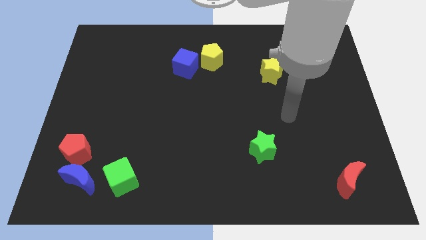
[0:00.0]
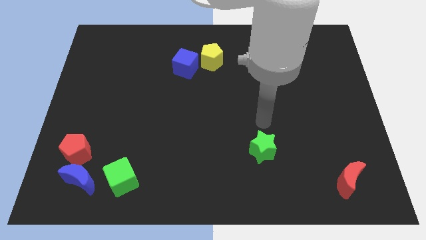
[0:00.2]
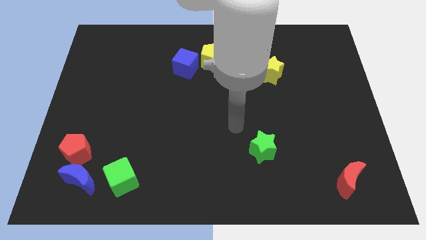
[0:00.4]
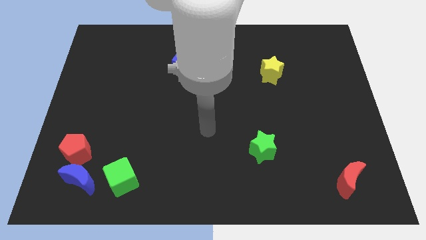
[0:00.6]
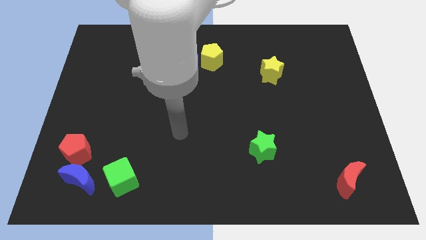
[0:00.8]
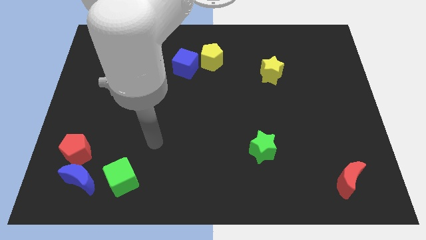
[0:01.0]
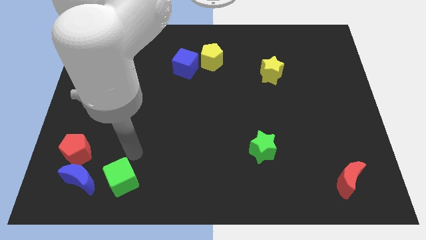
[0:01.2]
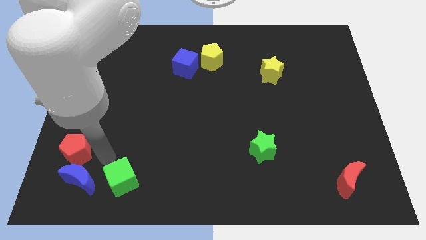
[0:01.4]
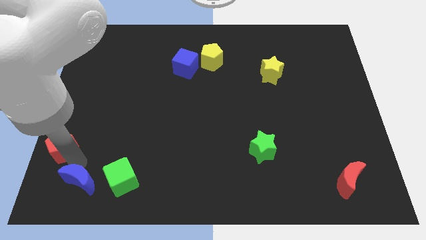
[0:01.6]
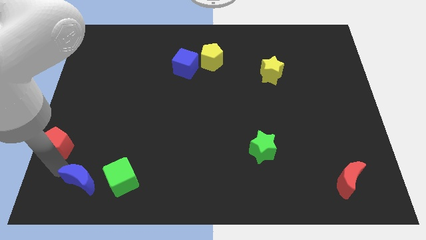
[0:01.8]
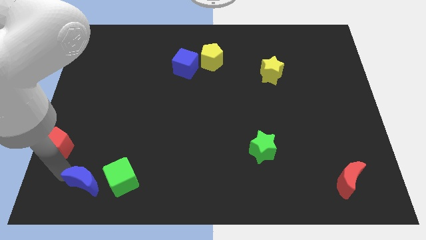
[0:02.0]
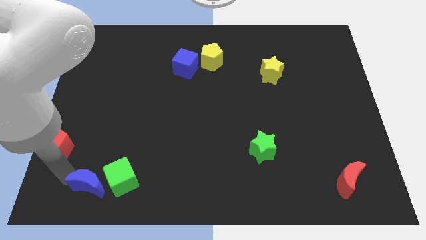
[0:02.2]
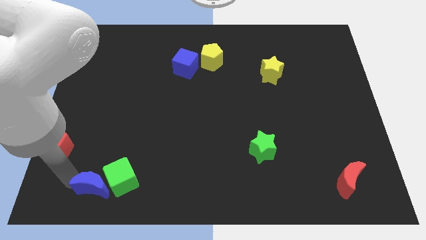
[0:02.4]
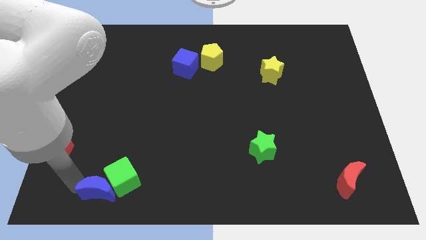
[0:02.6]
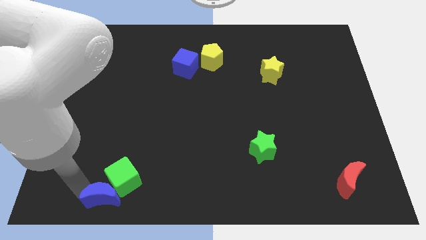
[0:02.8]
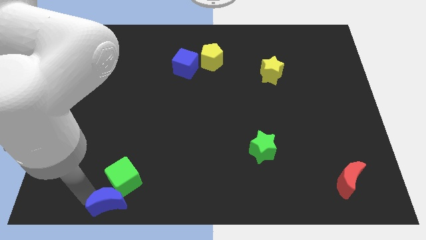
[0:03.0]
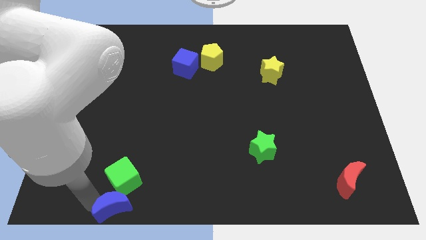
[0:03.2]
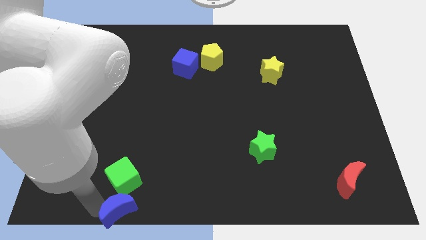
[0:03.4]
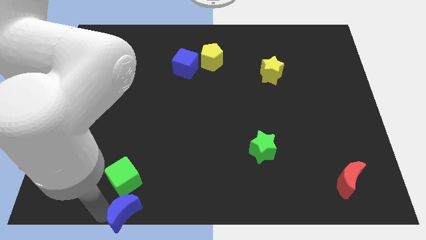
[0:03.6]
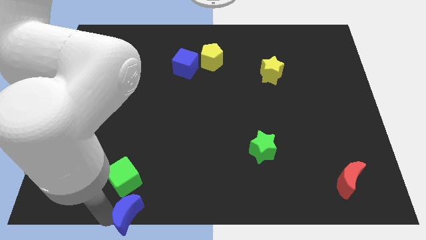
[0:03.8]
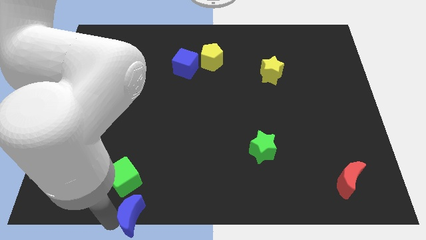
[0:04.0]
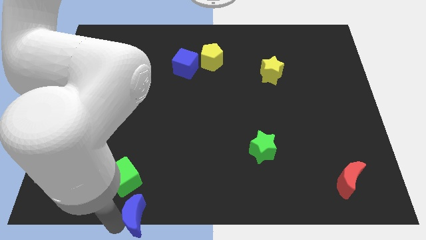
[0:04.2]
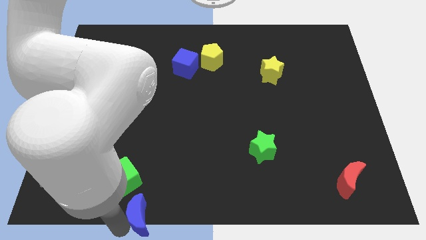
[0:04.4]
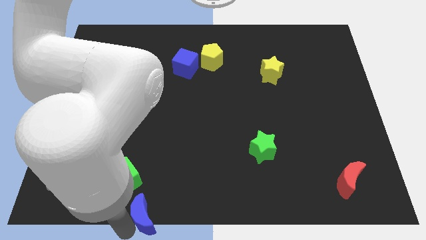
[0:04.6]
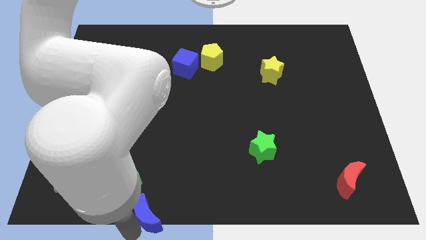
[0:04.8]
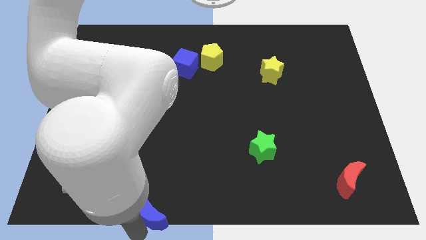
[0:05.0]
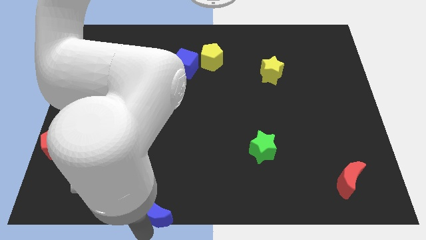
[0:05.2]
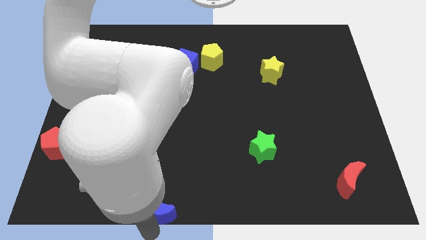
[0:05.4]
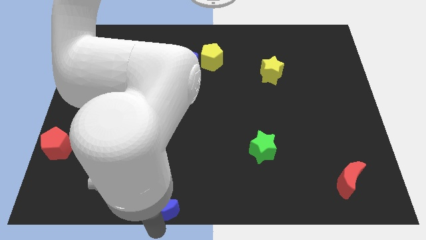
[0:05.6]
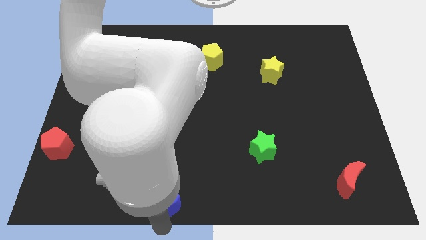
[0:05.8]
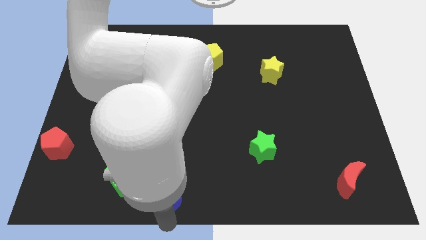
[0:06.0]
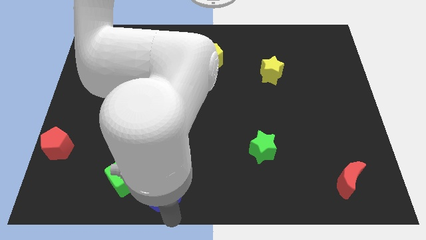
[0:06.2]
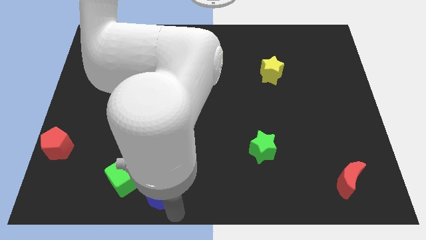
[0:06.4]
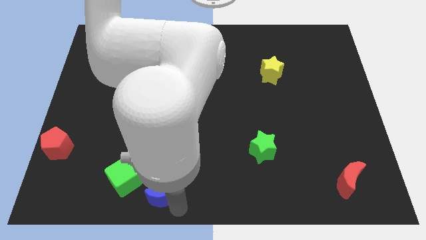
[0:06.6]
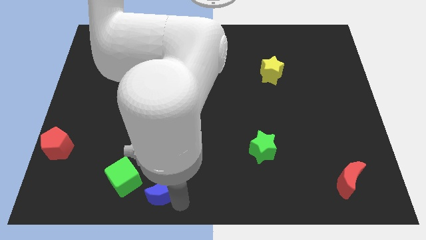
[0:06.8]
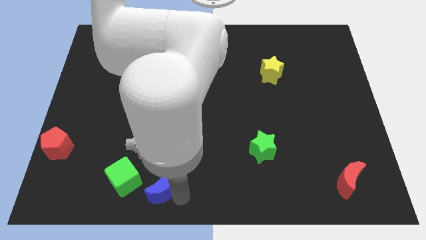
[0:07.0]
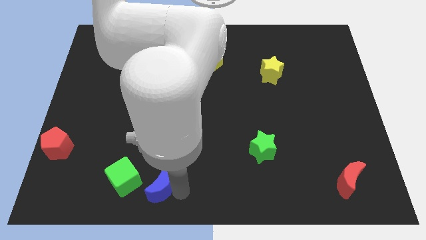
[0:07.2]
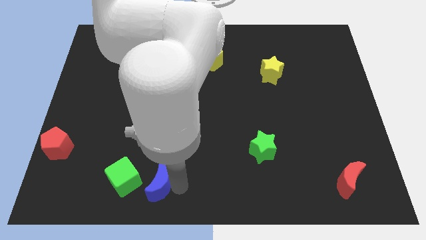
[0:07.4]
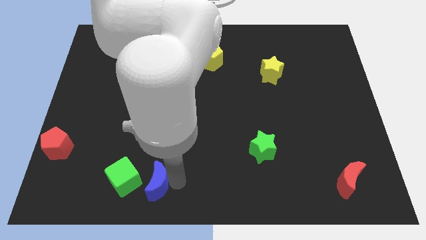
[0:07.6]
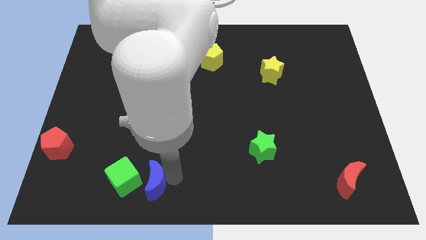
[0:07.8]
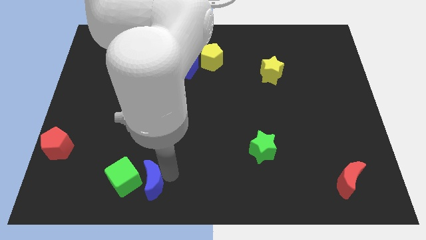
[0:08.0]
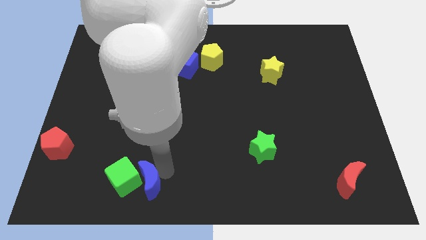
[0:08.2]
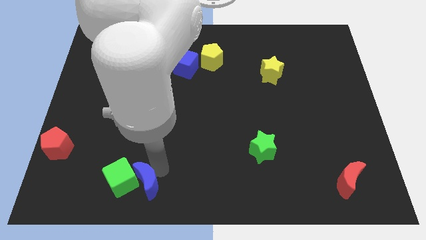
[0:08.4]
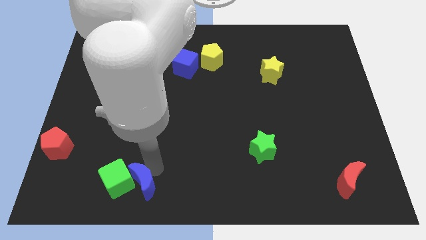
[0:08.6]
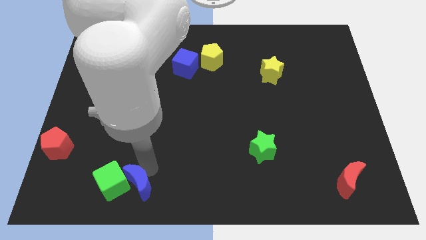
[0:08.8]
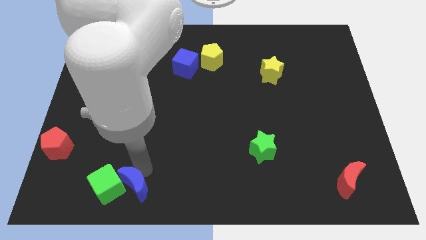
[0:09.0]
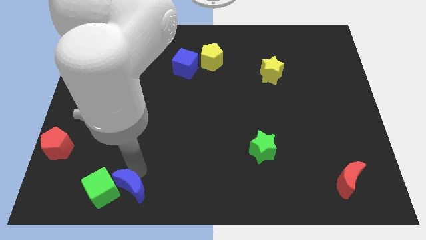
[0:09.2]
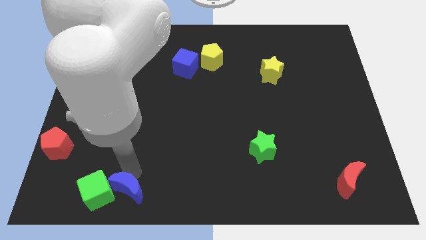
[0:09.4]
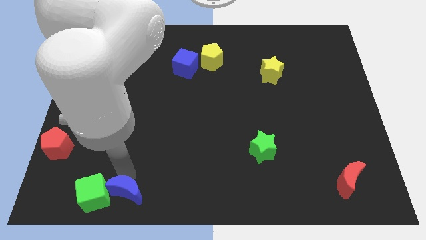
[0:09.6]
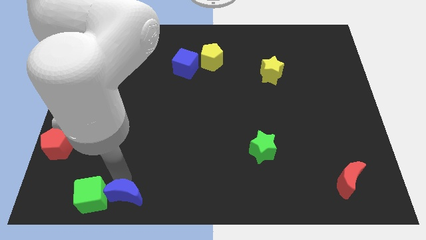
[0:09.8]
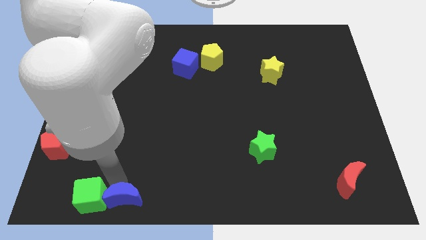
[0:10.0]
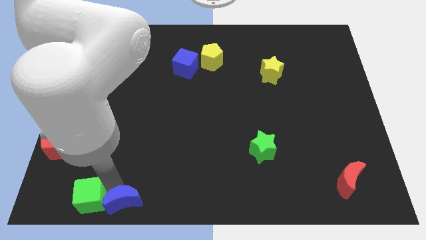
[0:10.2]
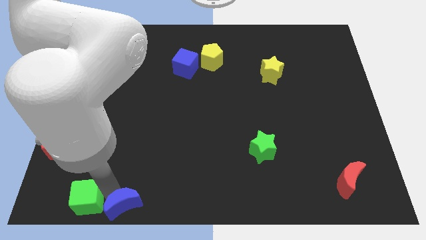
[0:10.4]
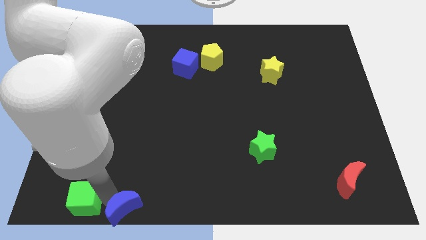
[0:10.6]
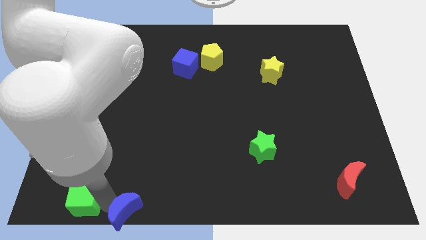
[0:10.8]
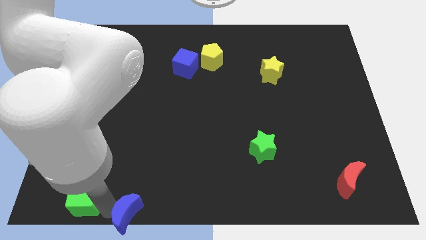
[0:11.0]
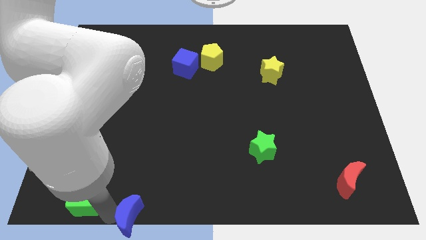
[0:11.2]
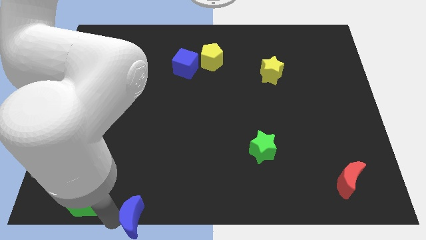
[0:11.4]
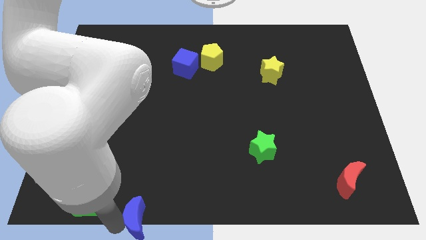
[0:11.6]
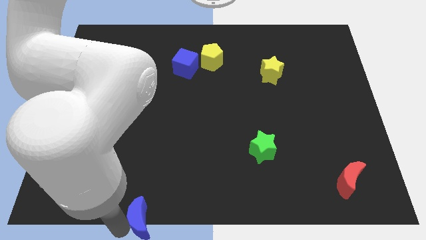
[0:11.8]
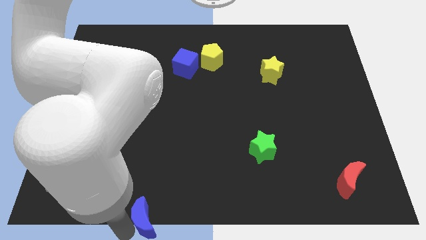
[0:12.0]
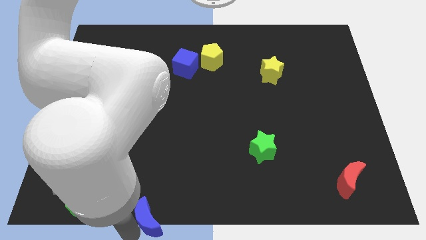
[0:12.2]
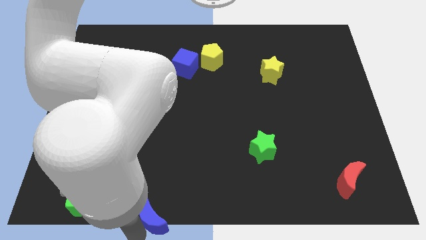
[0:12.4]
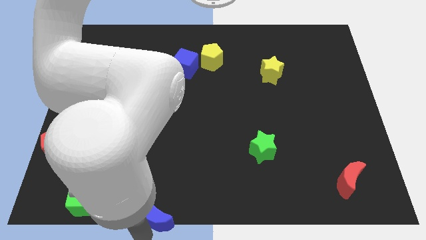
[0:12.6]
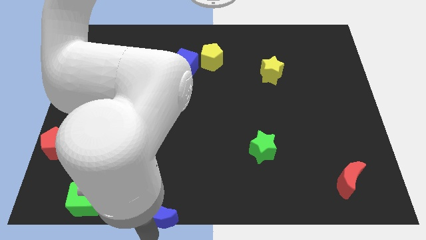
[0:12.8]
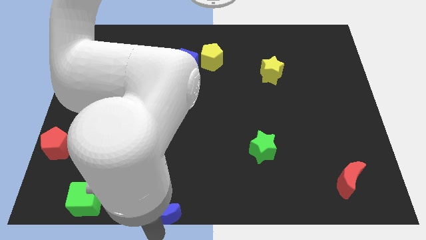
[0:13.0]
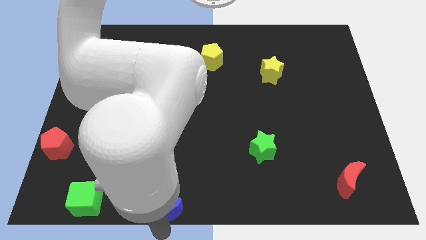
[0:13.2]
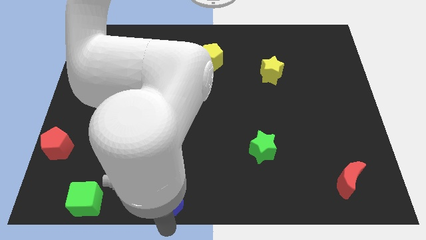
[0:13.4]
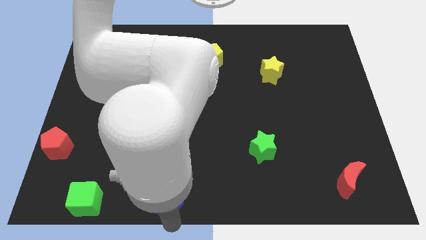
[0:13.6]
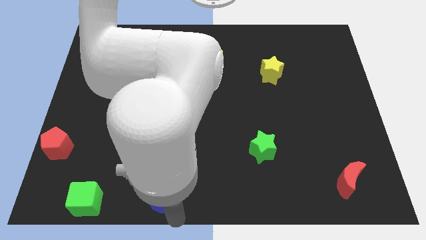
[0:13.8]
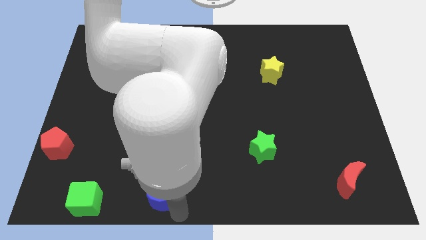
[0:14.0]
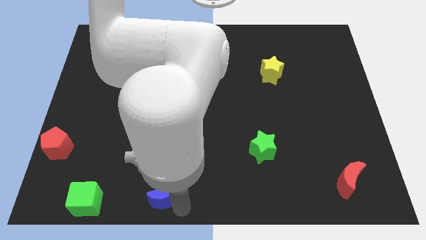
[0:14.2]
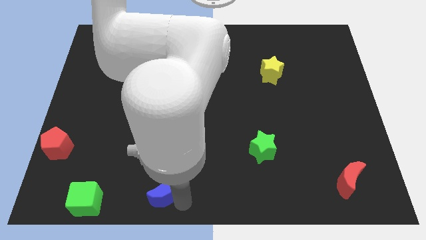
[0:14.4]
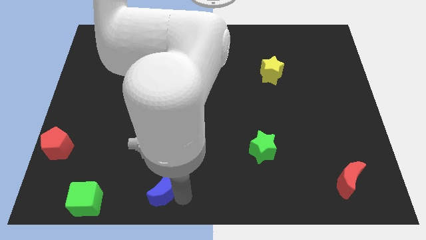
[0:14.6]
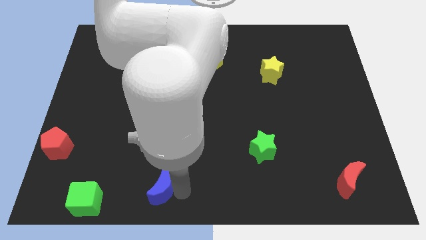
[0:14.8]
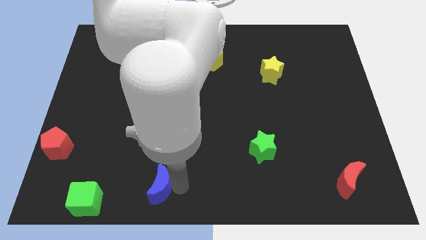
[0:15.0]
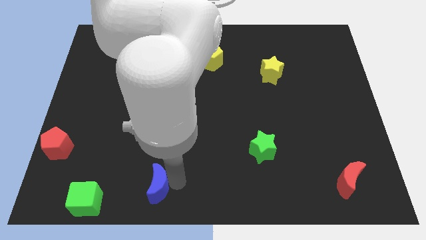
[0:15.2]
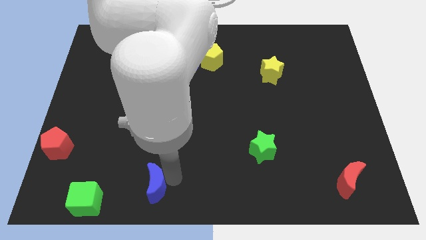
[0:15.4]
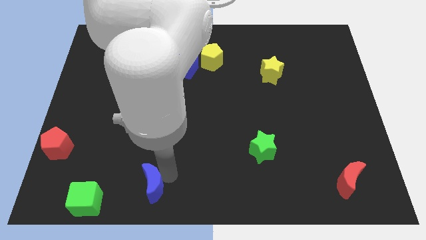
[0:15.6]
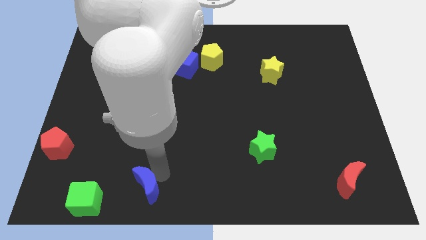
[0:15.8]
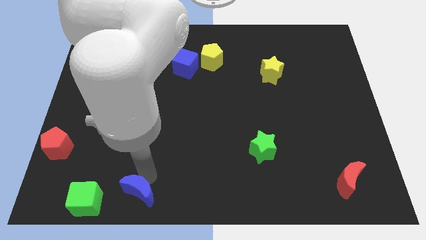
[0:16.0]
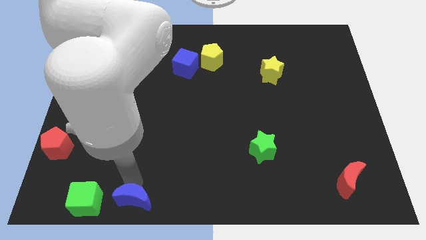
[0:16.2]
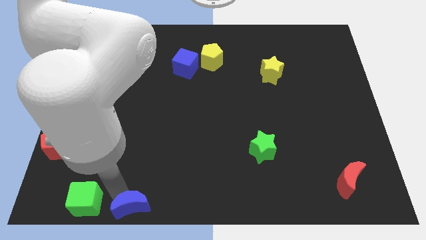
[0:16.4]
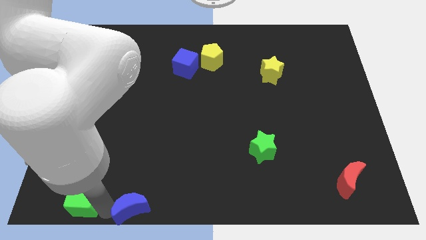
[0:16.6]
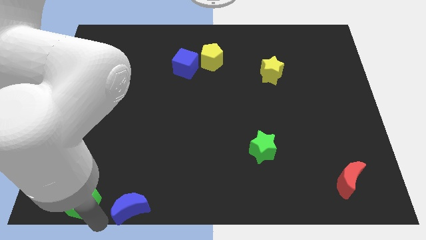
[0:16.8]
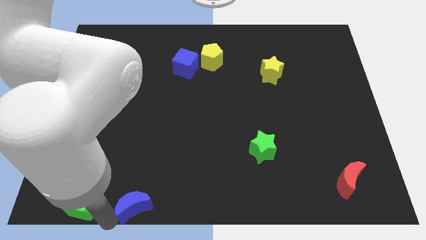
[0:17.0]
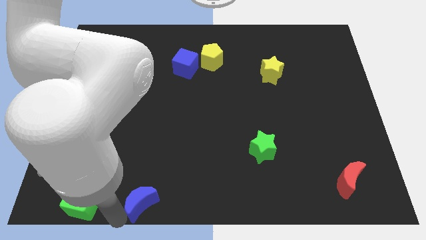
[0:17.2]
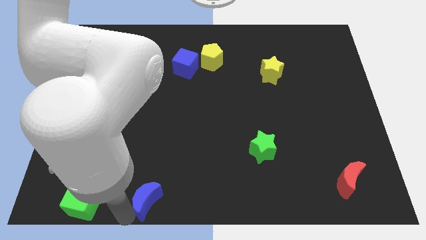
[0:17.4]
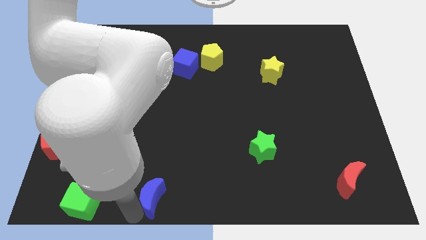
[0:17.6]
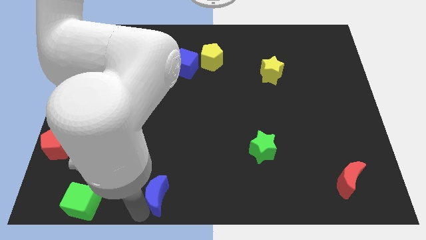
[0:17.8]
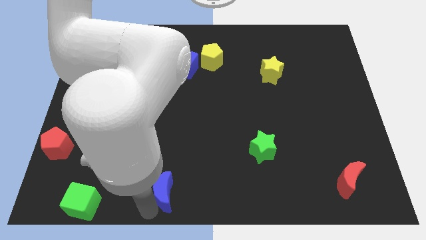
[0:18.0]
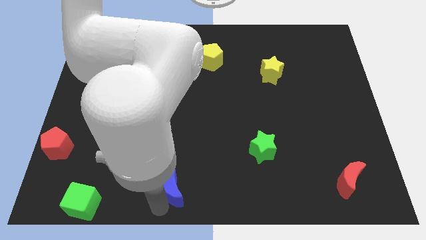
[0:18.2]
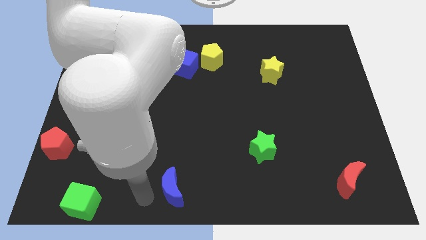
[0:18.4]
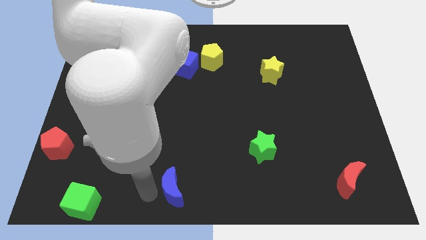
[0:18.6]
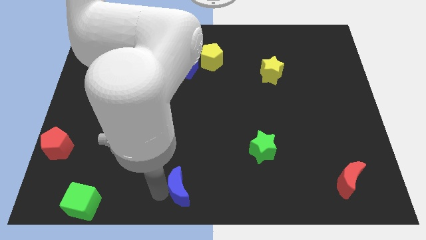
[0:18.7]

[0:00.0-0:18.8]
slide the blue moon right
